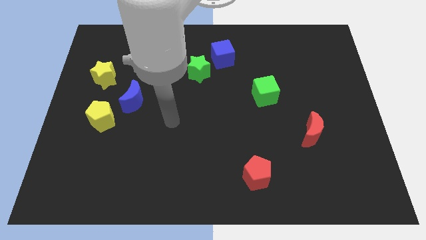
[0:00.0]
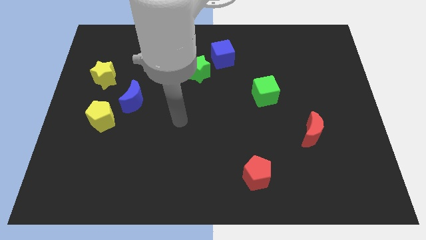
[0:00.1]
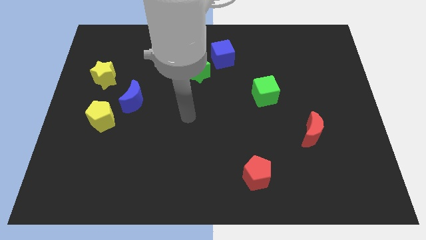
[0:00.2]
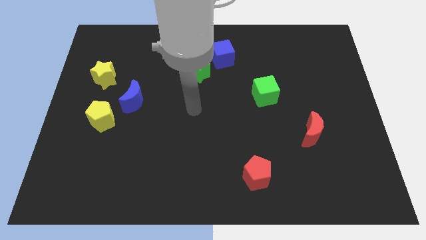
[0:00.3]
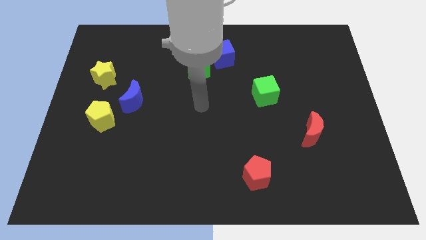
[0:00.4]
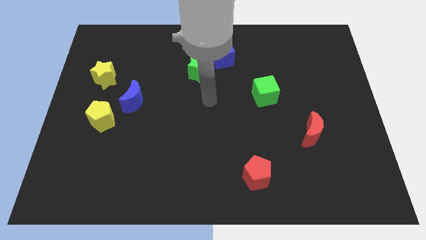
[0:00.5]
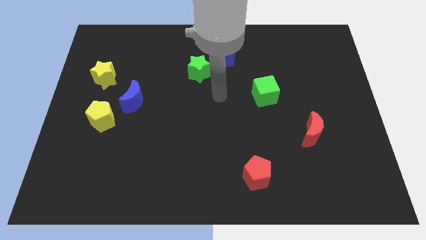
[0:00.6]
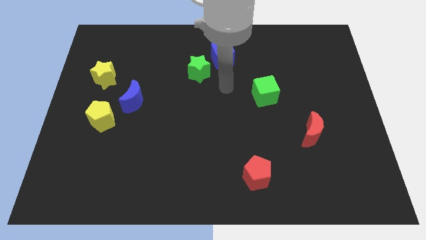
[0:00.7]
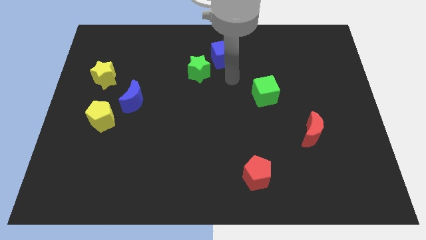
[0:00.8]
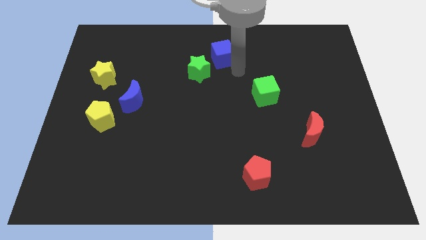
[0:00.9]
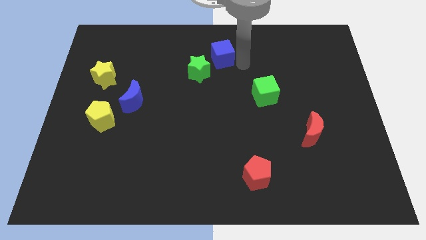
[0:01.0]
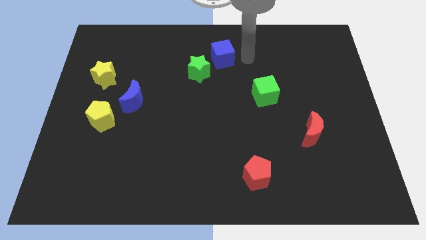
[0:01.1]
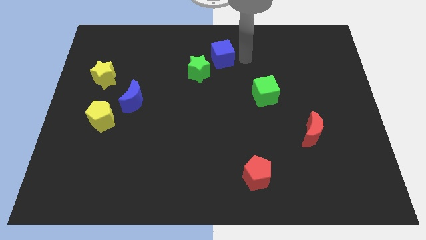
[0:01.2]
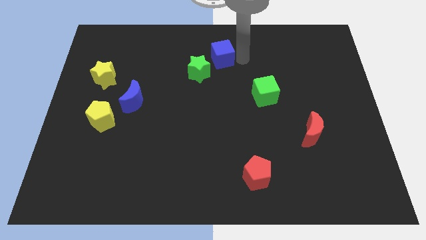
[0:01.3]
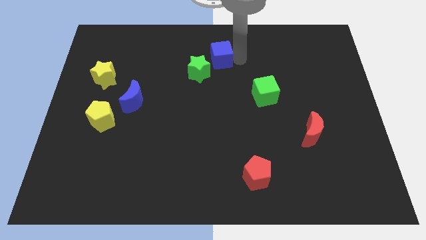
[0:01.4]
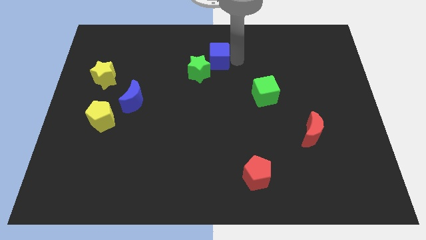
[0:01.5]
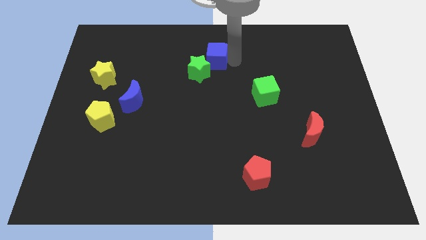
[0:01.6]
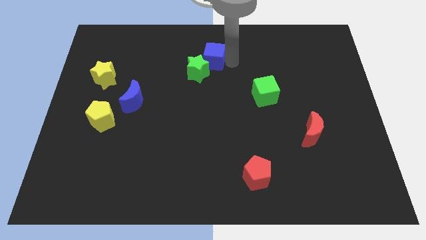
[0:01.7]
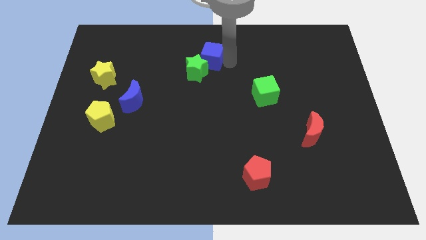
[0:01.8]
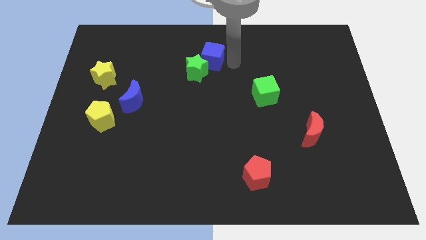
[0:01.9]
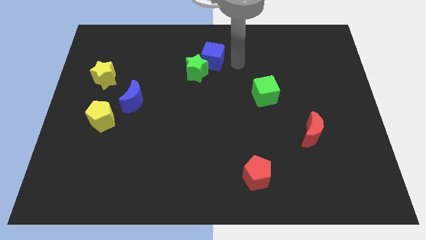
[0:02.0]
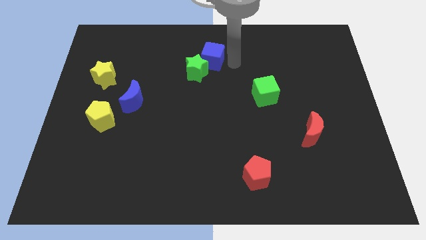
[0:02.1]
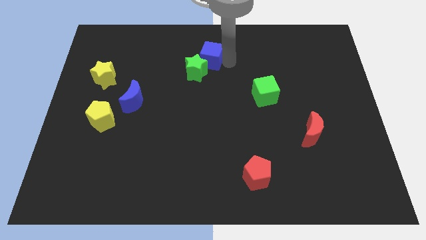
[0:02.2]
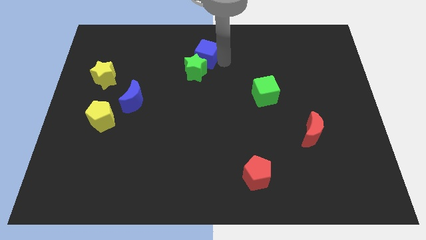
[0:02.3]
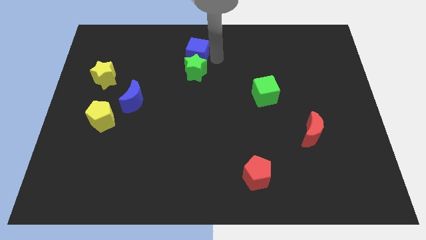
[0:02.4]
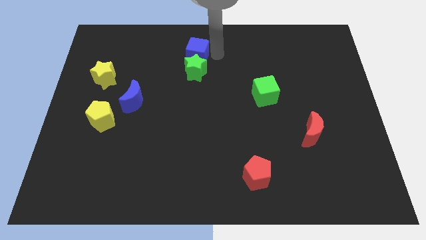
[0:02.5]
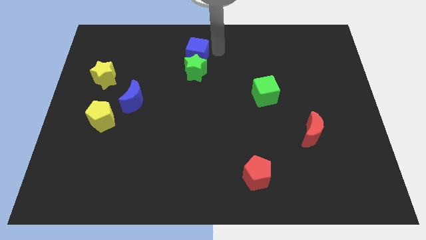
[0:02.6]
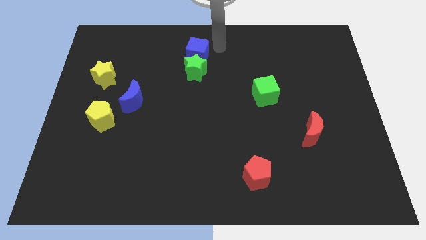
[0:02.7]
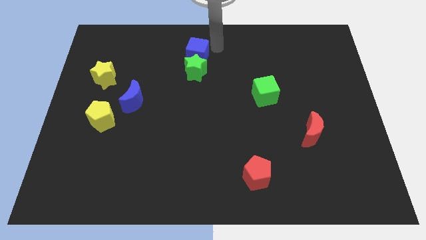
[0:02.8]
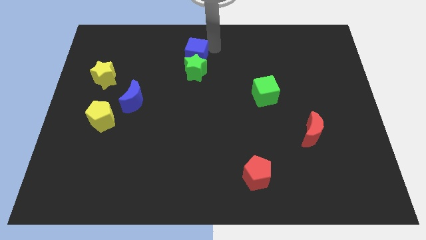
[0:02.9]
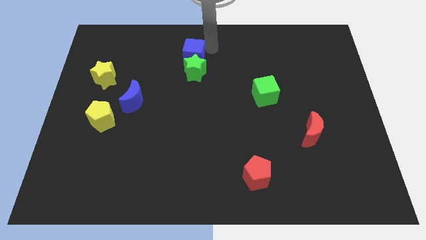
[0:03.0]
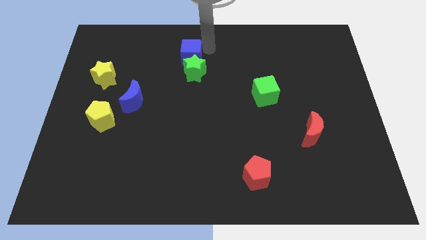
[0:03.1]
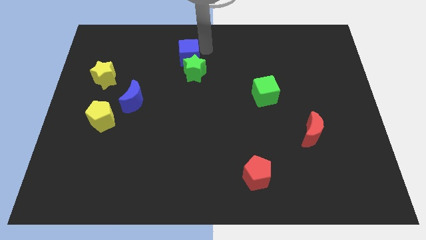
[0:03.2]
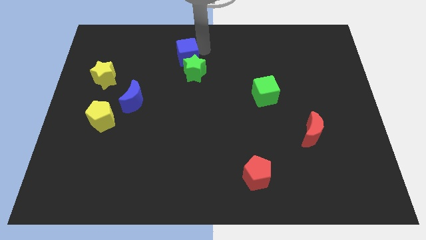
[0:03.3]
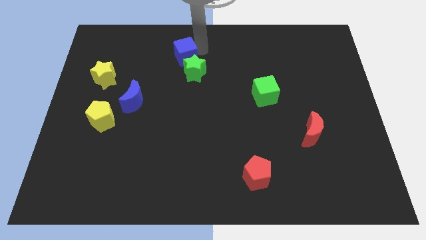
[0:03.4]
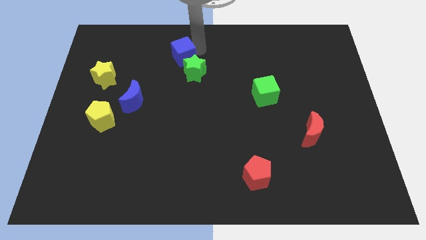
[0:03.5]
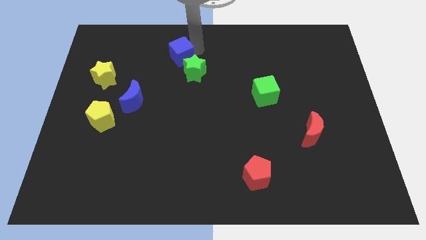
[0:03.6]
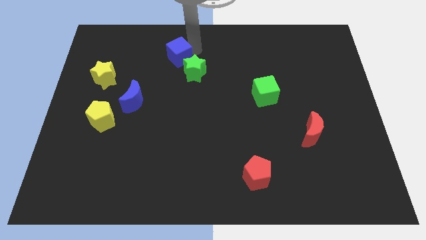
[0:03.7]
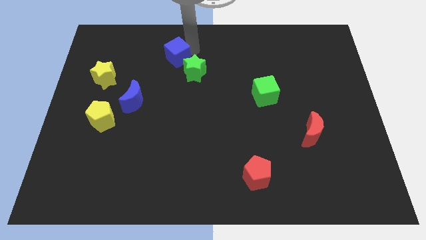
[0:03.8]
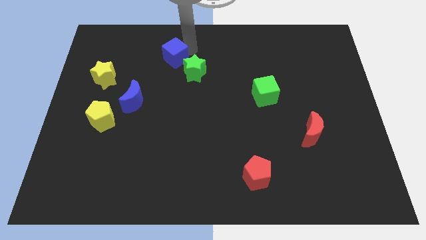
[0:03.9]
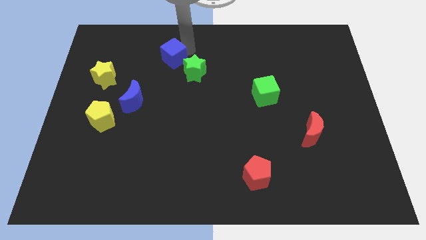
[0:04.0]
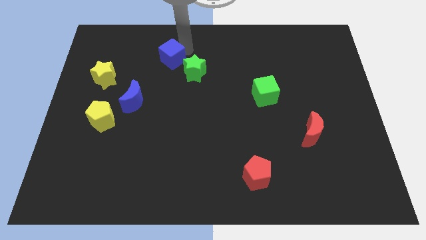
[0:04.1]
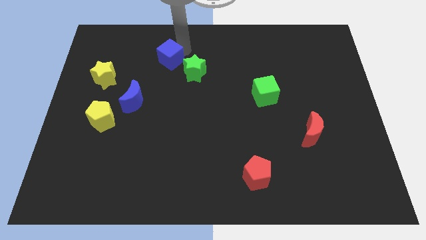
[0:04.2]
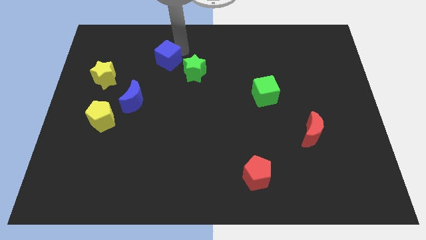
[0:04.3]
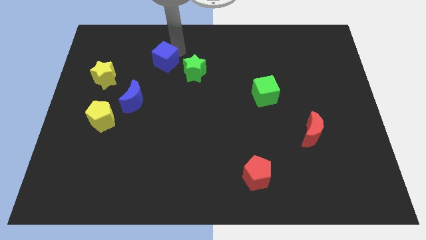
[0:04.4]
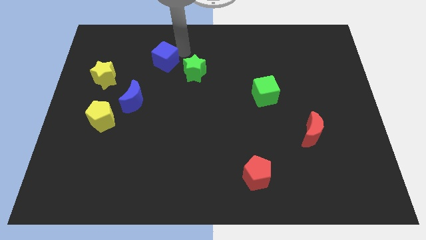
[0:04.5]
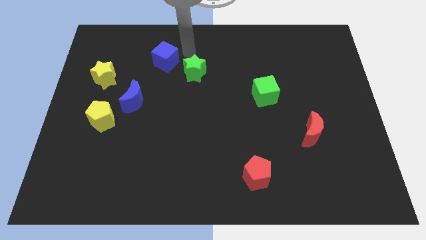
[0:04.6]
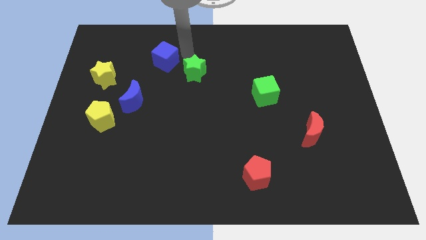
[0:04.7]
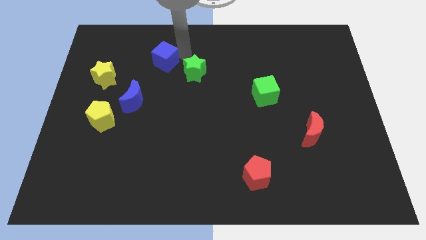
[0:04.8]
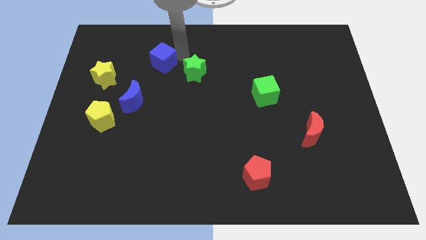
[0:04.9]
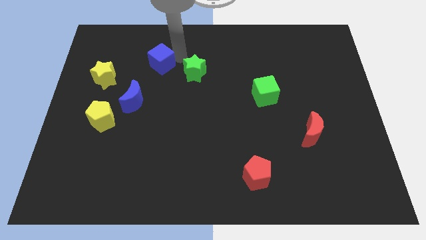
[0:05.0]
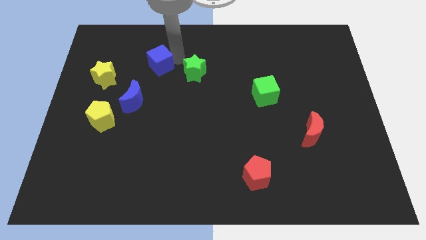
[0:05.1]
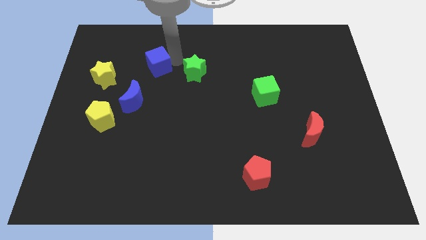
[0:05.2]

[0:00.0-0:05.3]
put the blue cube to the top side of the blue moon

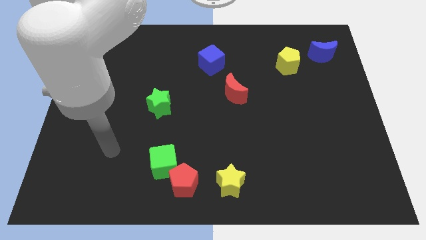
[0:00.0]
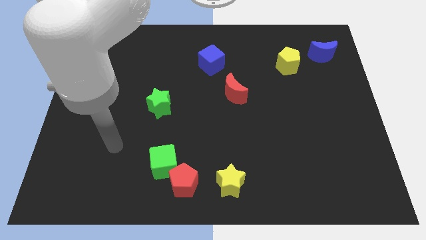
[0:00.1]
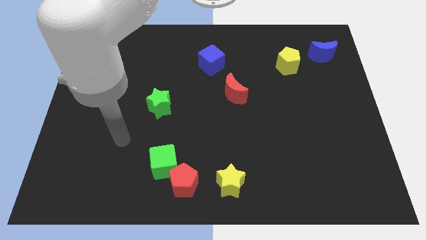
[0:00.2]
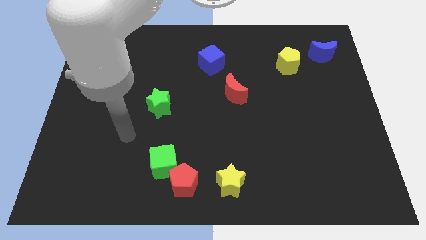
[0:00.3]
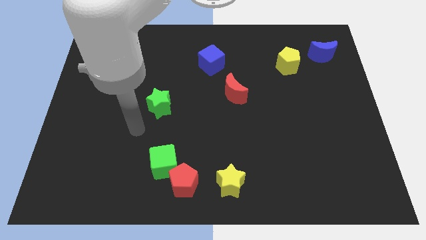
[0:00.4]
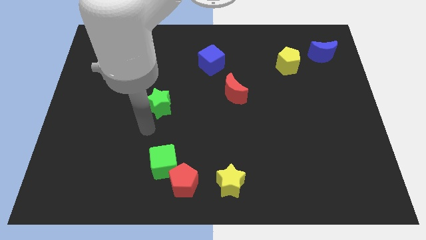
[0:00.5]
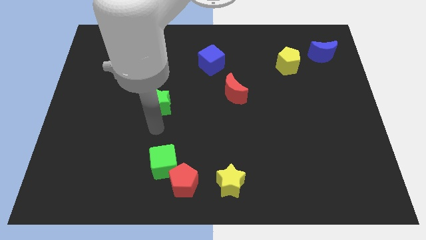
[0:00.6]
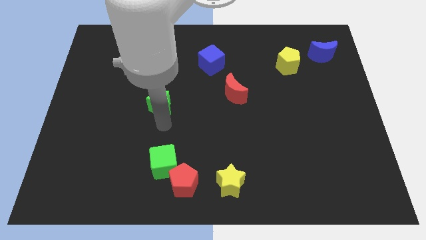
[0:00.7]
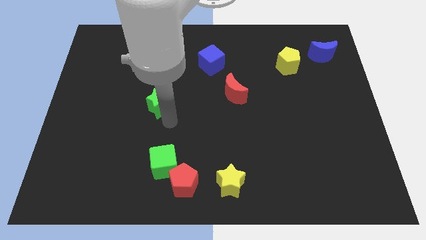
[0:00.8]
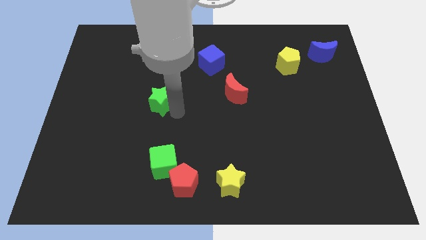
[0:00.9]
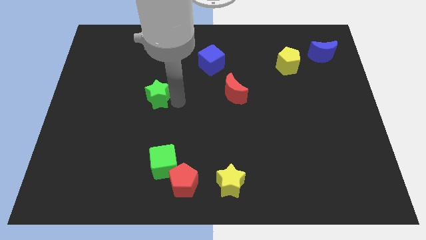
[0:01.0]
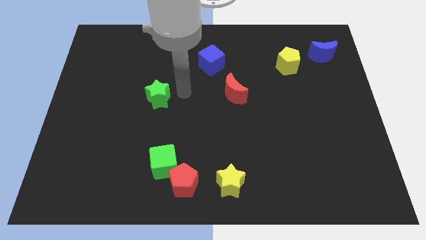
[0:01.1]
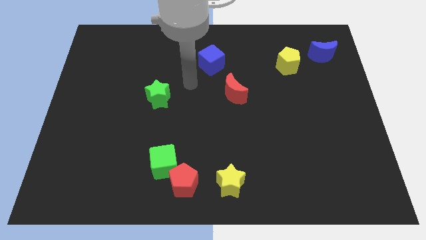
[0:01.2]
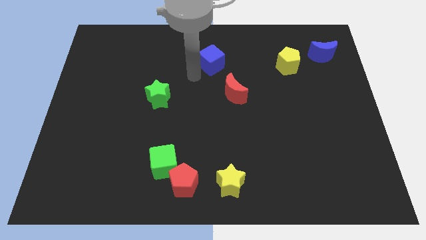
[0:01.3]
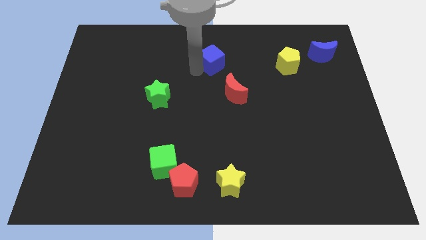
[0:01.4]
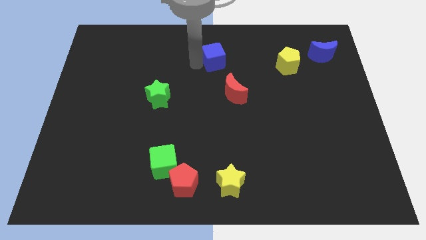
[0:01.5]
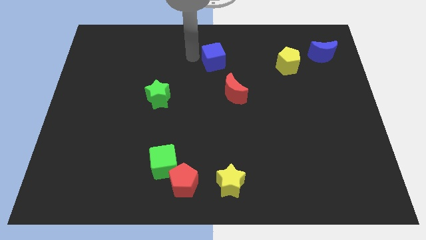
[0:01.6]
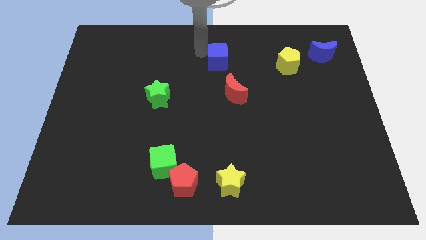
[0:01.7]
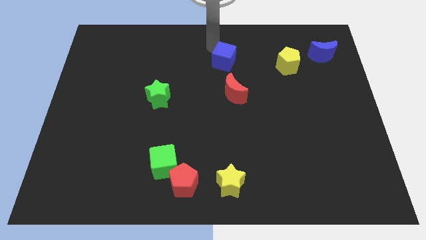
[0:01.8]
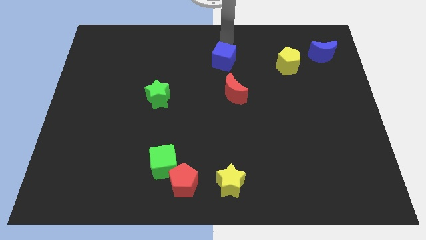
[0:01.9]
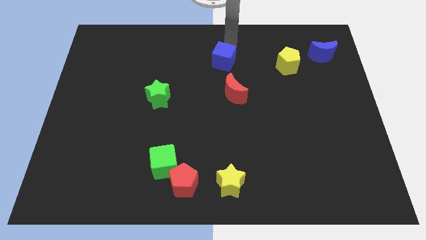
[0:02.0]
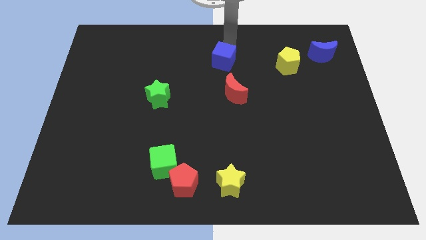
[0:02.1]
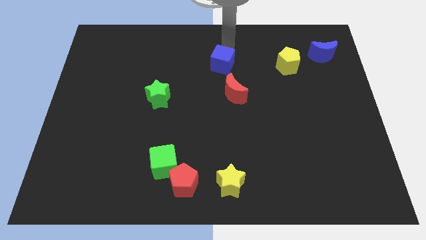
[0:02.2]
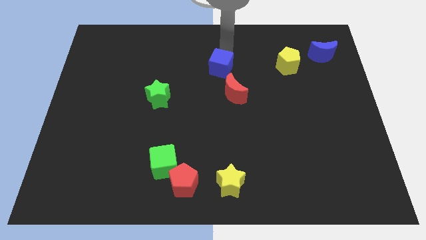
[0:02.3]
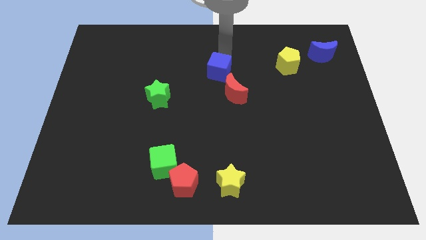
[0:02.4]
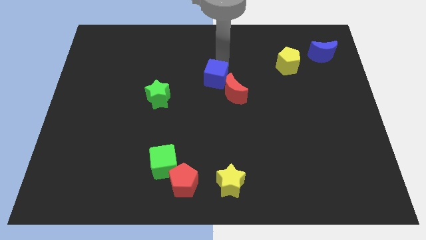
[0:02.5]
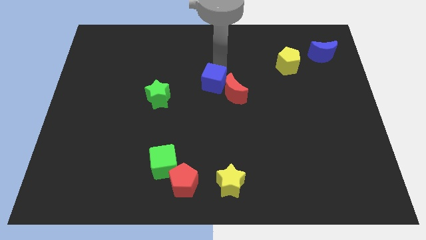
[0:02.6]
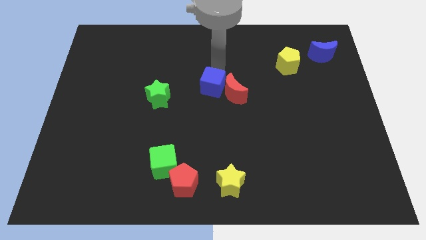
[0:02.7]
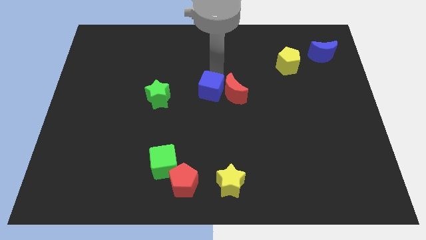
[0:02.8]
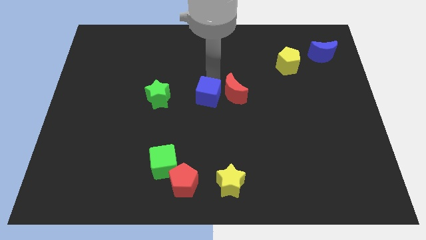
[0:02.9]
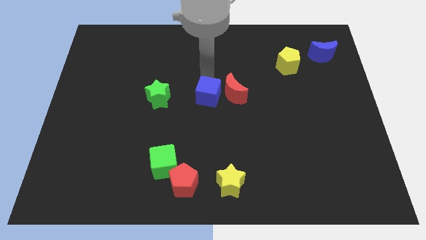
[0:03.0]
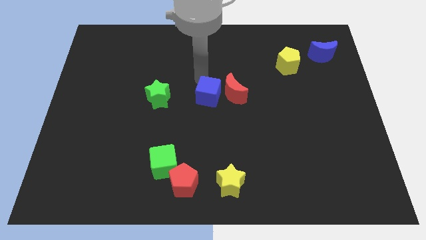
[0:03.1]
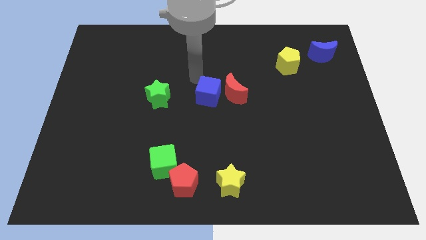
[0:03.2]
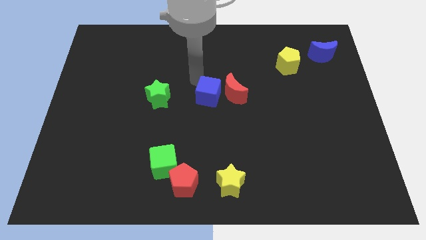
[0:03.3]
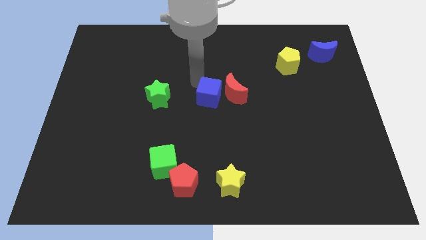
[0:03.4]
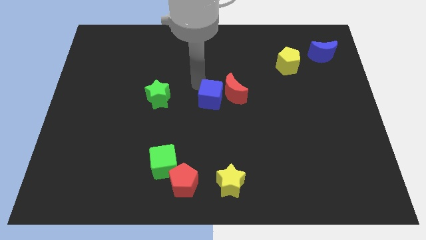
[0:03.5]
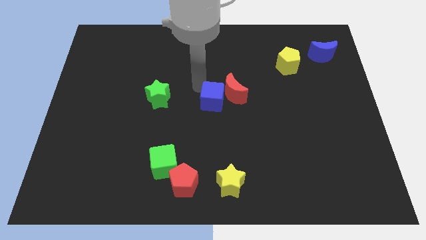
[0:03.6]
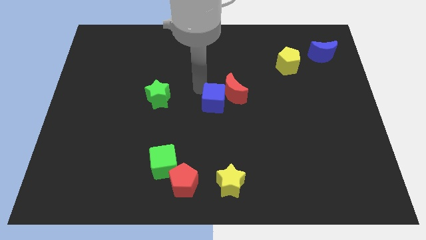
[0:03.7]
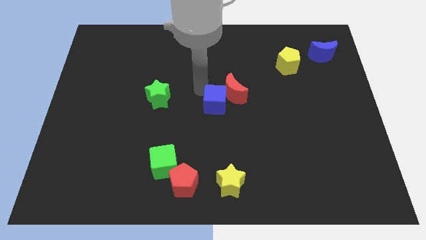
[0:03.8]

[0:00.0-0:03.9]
slide the blue cube to the bottom of the red moon
